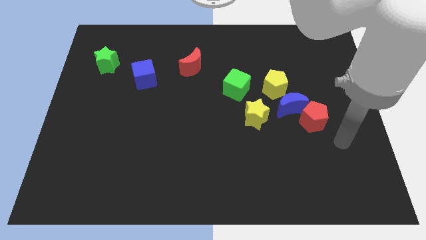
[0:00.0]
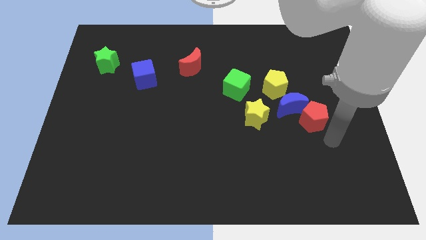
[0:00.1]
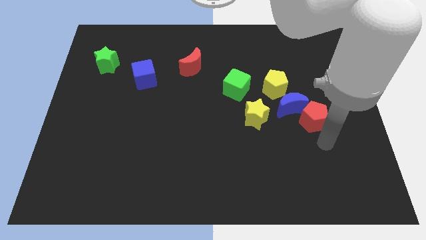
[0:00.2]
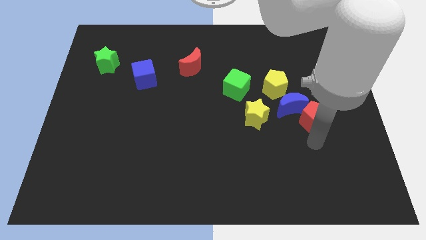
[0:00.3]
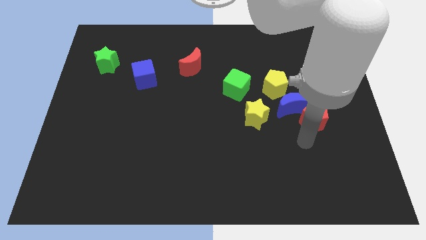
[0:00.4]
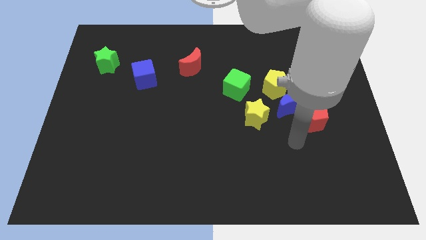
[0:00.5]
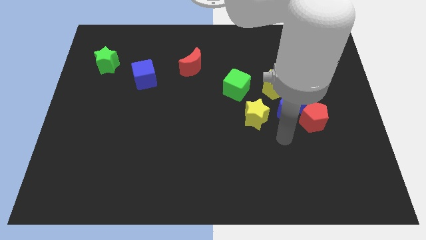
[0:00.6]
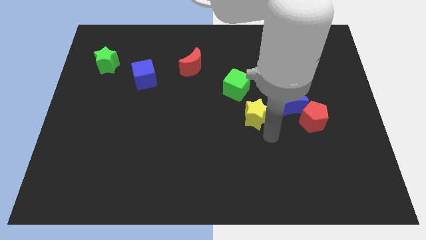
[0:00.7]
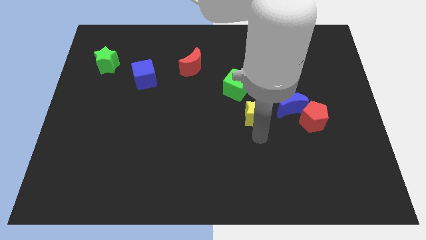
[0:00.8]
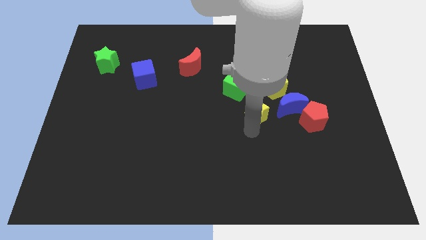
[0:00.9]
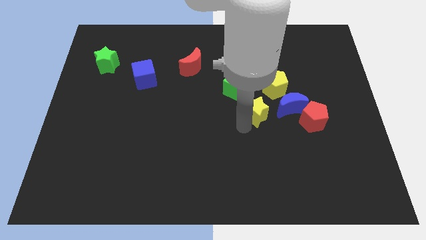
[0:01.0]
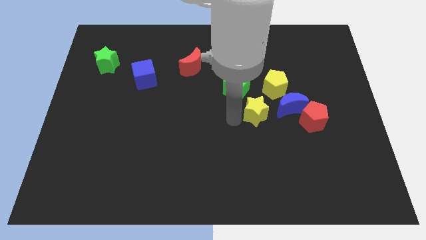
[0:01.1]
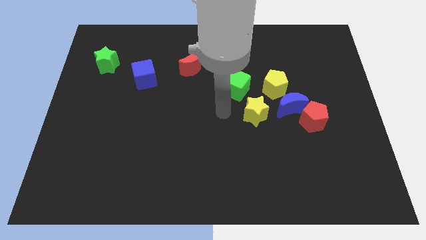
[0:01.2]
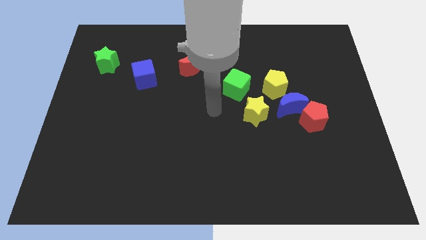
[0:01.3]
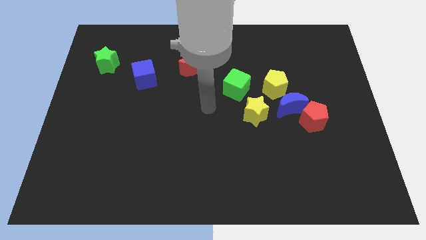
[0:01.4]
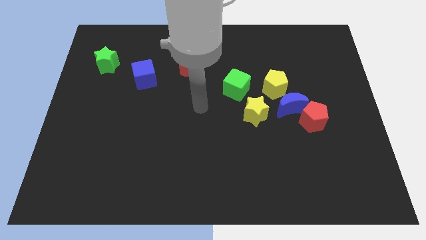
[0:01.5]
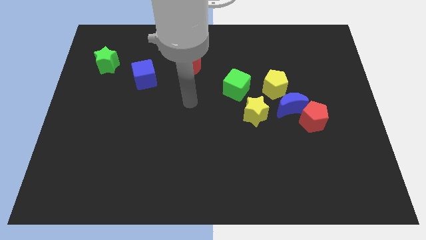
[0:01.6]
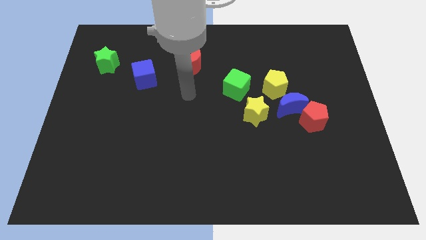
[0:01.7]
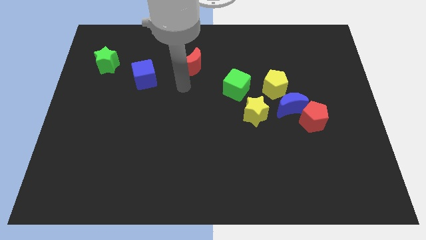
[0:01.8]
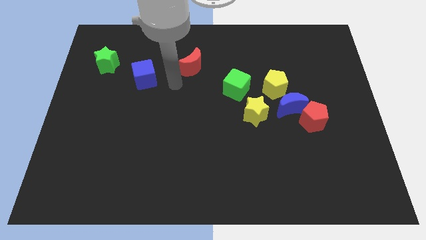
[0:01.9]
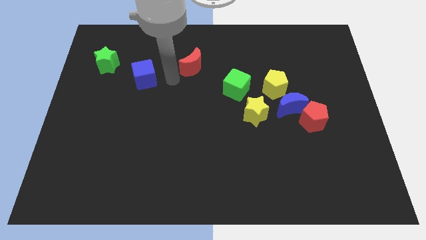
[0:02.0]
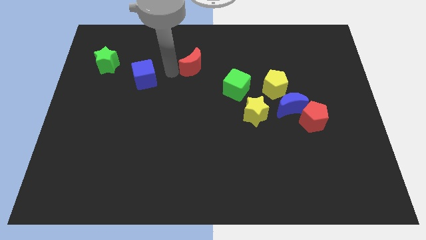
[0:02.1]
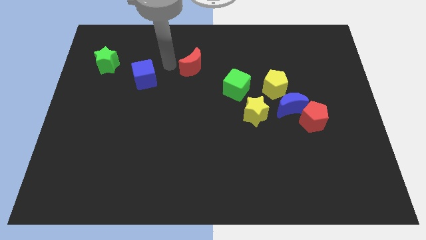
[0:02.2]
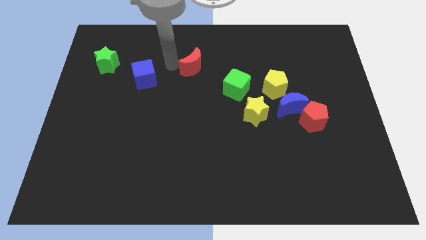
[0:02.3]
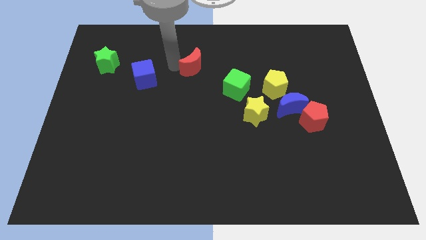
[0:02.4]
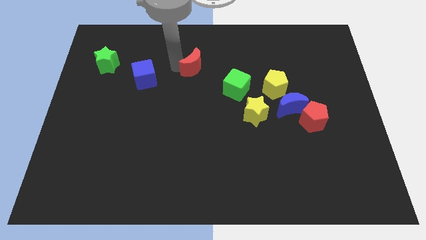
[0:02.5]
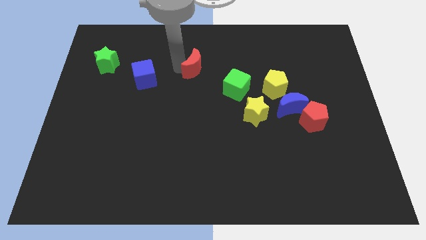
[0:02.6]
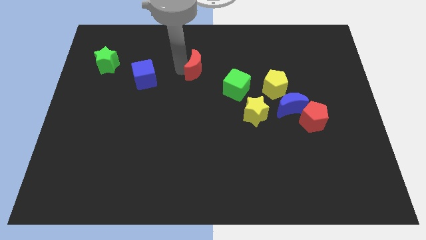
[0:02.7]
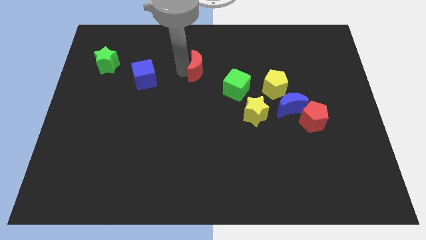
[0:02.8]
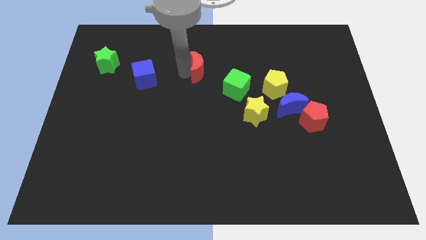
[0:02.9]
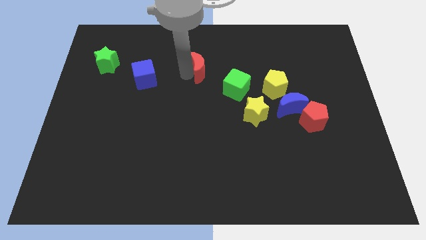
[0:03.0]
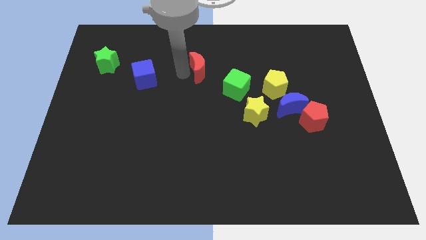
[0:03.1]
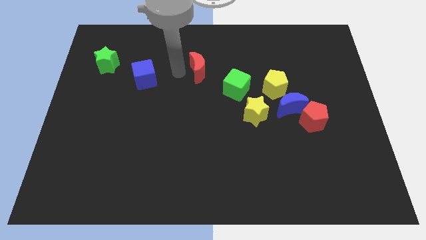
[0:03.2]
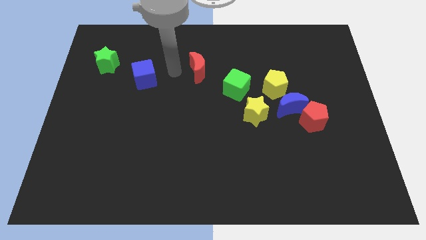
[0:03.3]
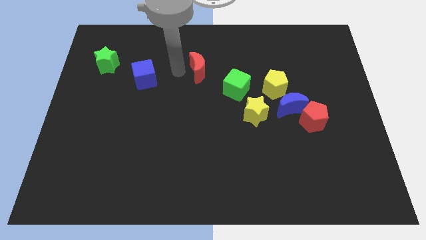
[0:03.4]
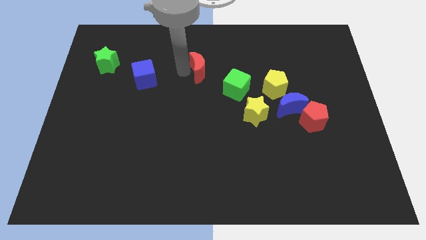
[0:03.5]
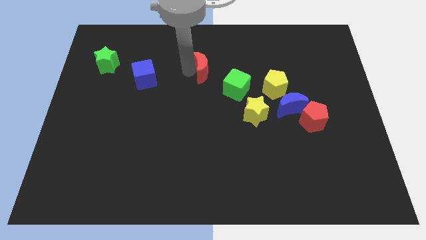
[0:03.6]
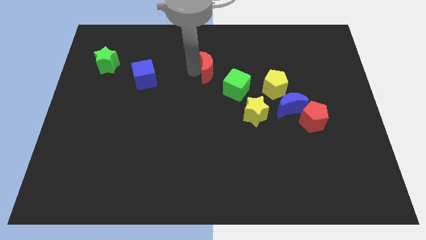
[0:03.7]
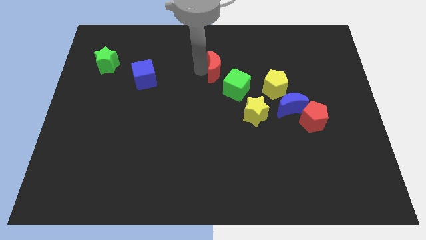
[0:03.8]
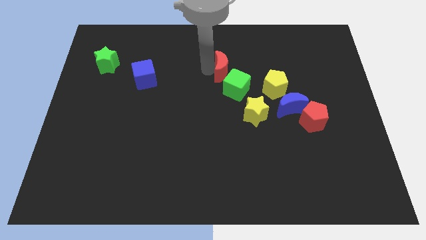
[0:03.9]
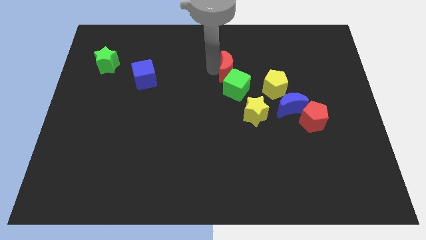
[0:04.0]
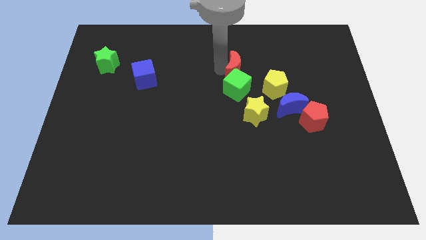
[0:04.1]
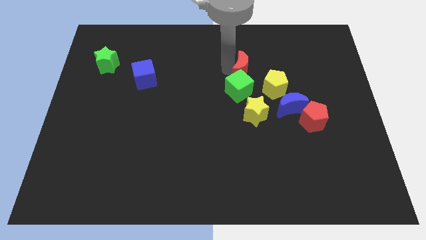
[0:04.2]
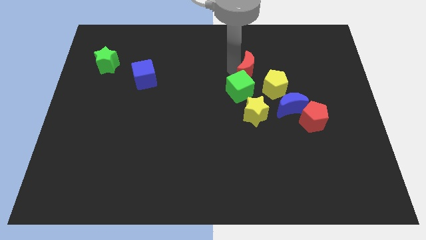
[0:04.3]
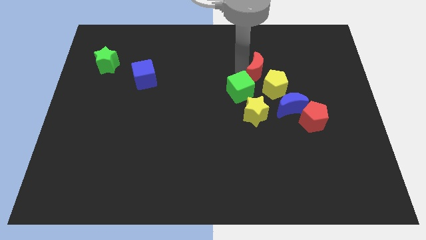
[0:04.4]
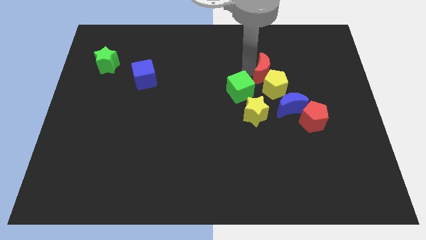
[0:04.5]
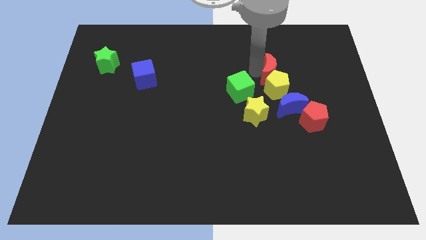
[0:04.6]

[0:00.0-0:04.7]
put the red moon to the top side of the blue moon

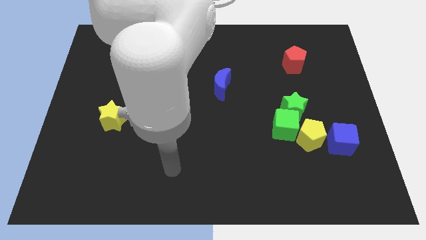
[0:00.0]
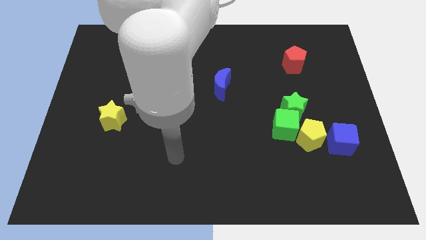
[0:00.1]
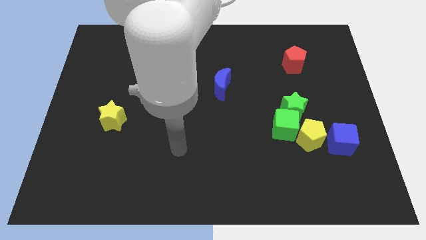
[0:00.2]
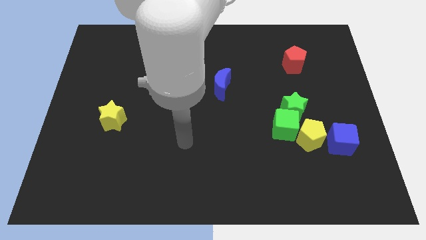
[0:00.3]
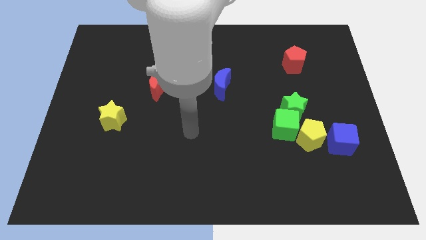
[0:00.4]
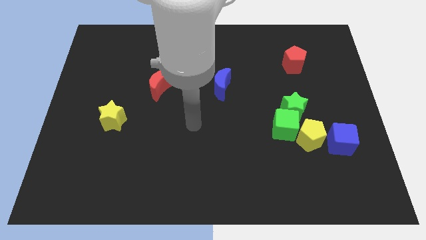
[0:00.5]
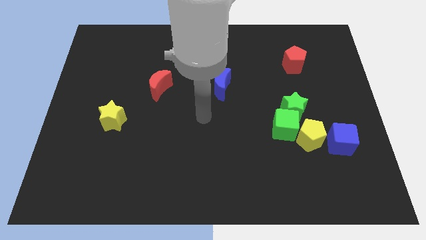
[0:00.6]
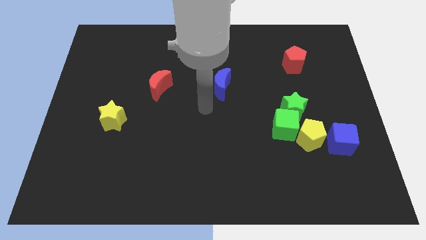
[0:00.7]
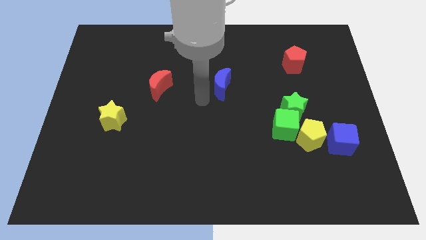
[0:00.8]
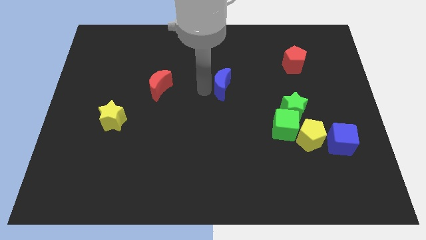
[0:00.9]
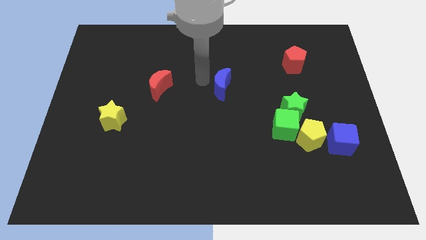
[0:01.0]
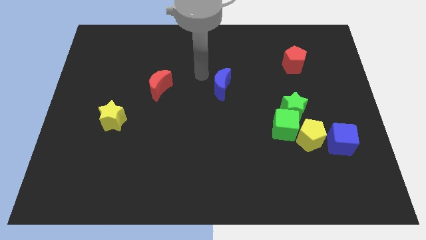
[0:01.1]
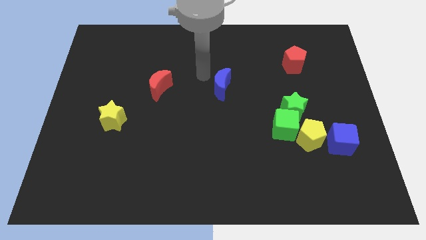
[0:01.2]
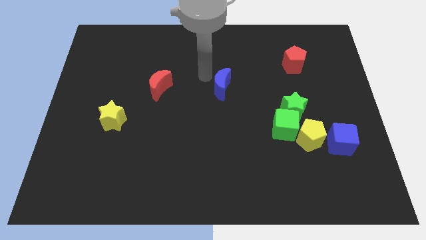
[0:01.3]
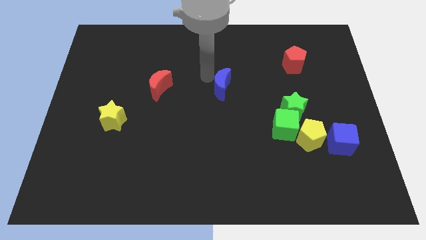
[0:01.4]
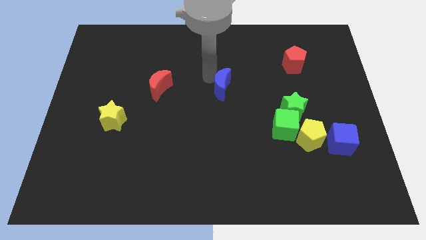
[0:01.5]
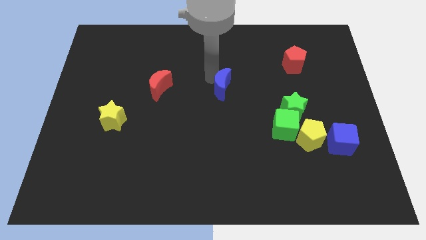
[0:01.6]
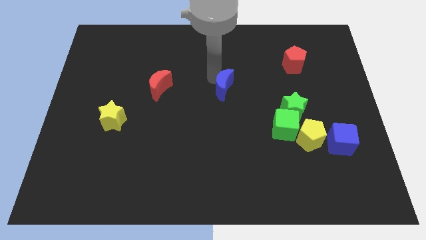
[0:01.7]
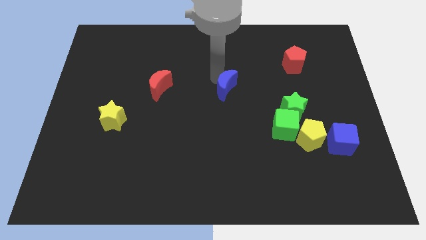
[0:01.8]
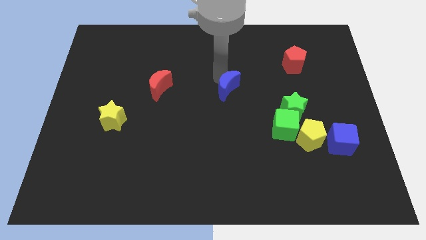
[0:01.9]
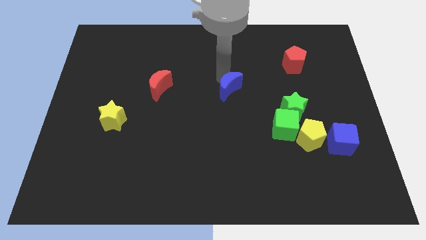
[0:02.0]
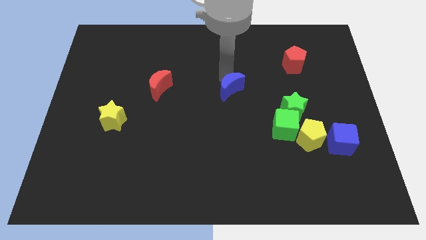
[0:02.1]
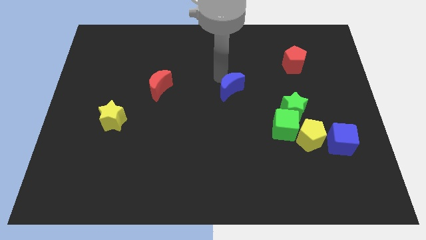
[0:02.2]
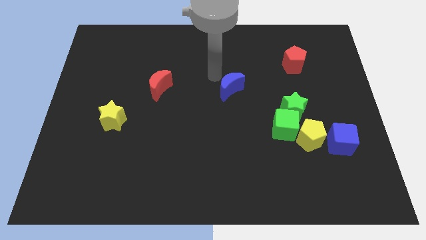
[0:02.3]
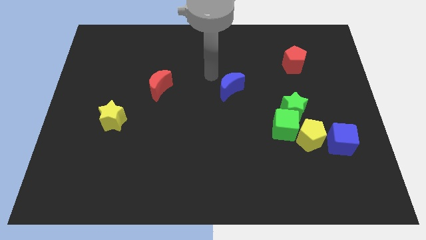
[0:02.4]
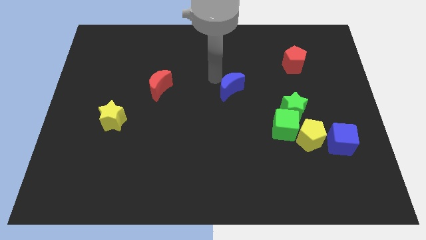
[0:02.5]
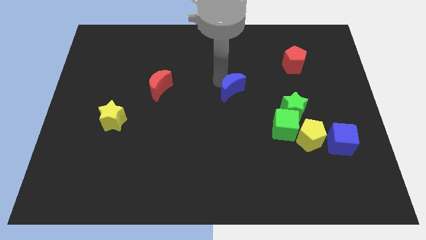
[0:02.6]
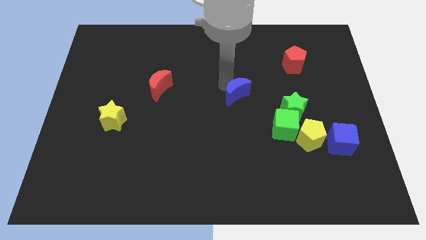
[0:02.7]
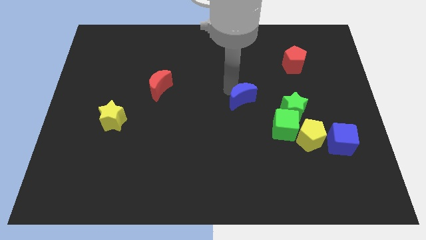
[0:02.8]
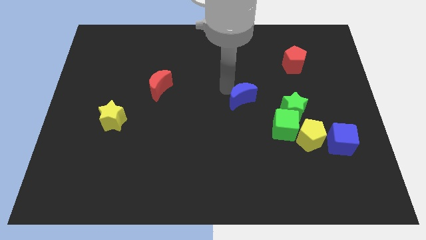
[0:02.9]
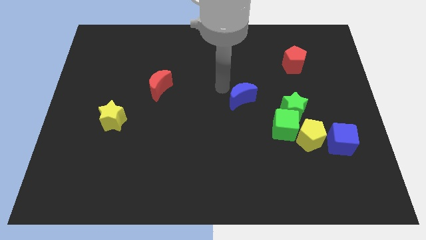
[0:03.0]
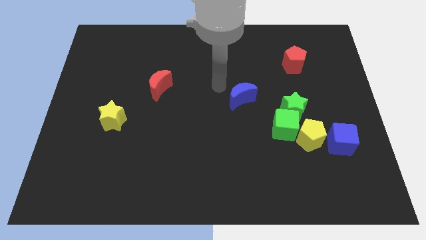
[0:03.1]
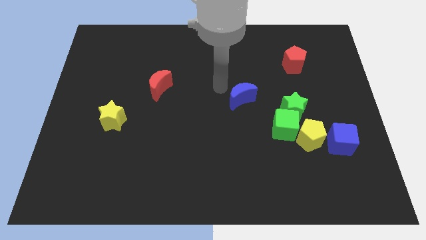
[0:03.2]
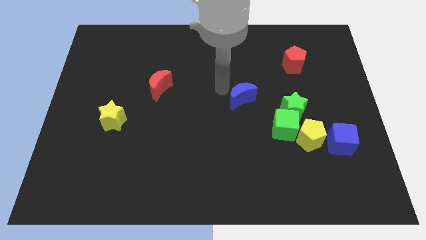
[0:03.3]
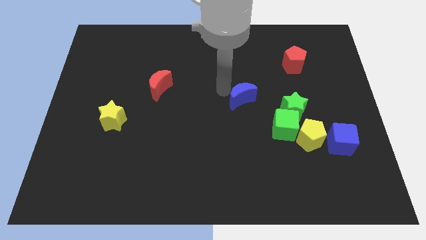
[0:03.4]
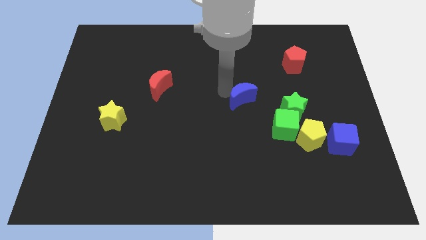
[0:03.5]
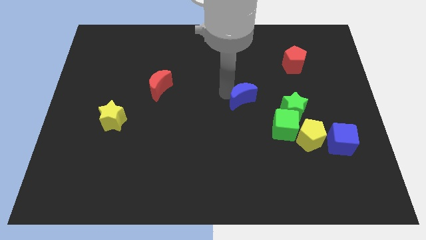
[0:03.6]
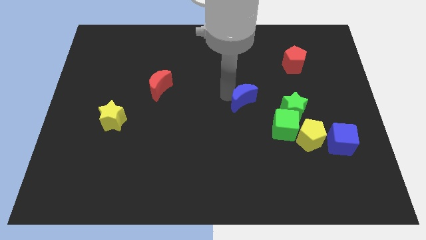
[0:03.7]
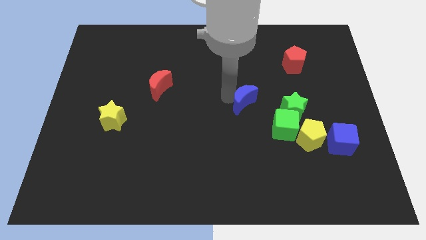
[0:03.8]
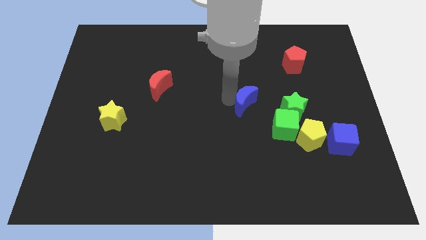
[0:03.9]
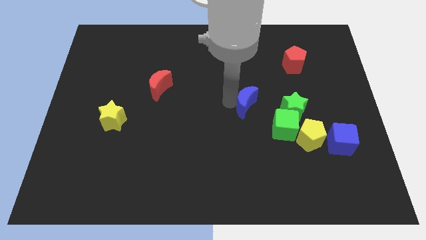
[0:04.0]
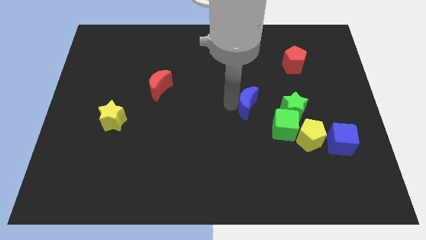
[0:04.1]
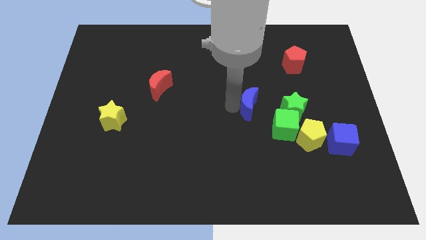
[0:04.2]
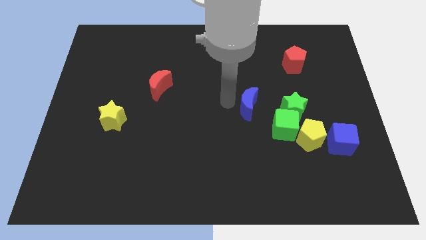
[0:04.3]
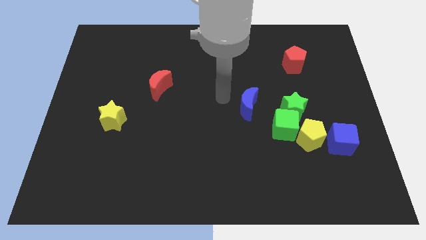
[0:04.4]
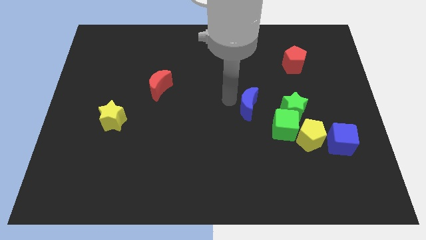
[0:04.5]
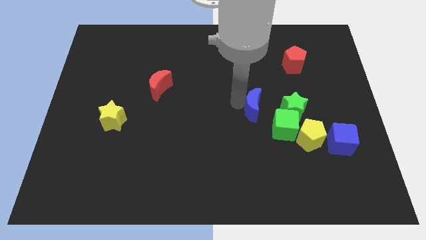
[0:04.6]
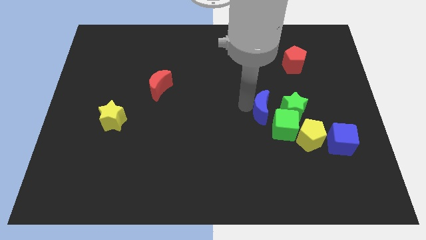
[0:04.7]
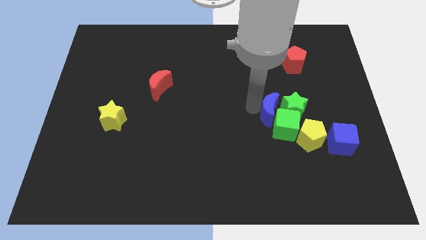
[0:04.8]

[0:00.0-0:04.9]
slide the blue moon to the top left of the yellow pentagon
